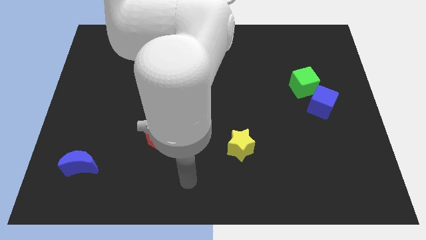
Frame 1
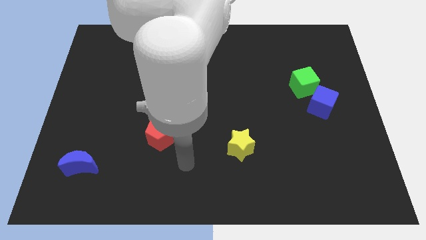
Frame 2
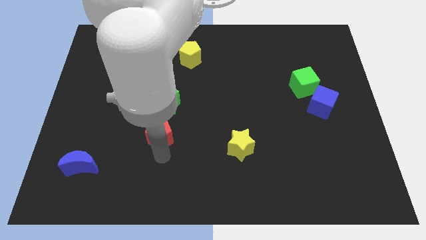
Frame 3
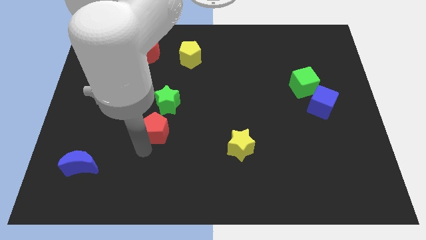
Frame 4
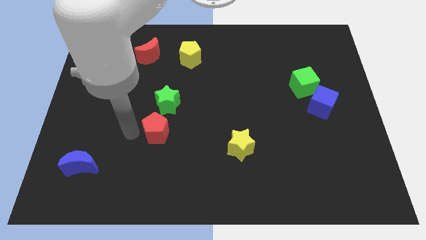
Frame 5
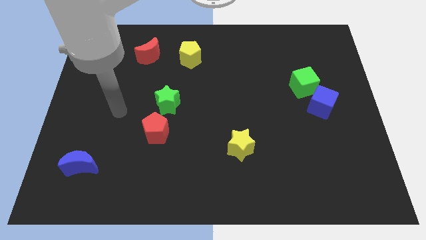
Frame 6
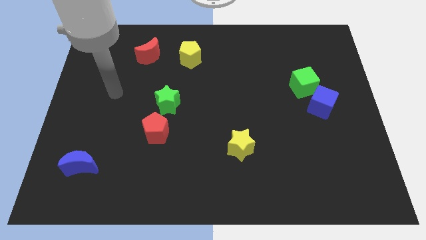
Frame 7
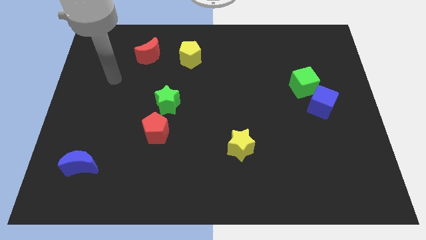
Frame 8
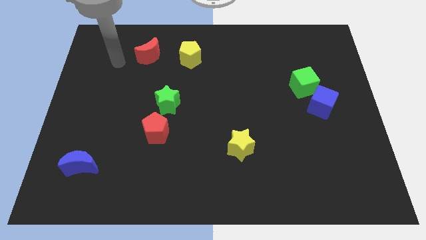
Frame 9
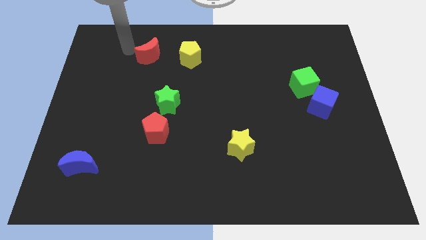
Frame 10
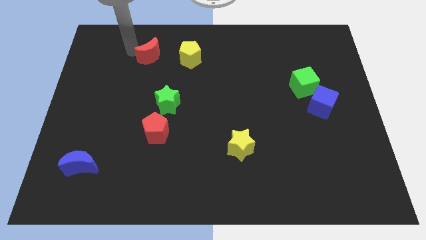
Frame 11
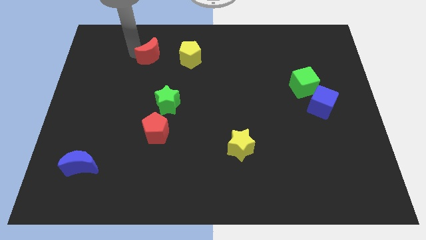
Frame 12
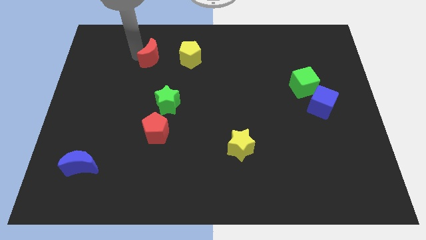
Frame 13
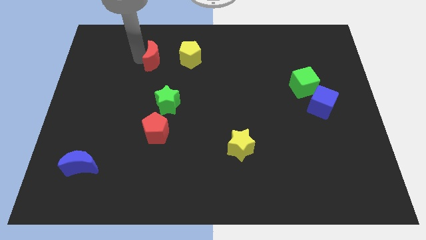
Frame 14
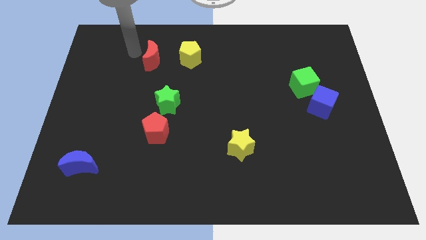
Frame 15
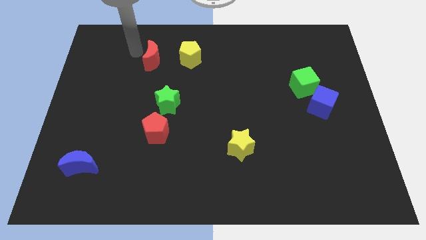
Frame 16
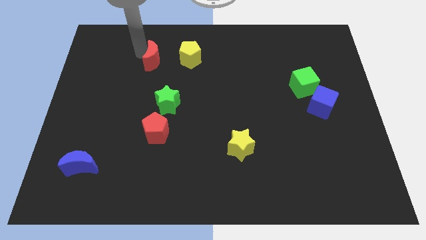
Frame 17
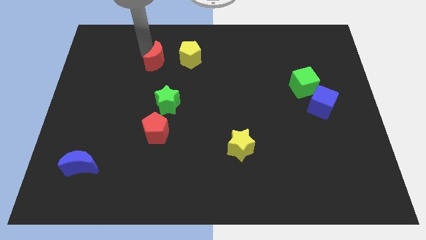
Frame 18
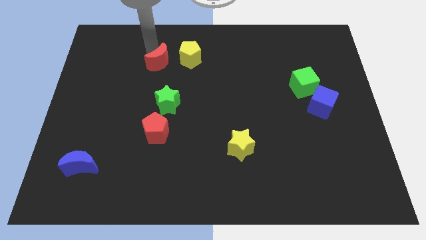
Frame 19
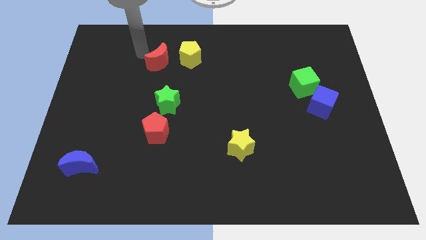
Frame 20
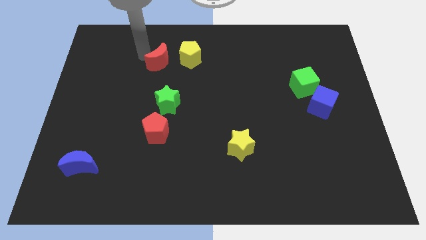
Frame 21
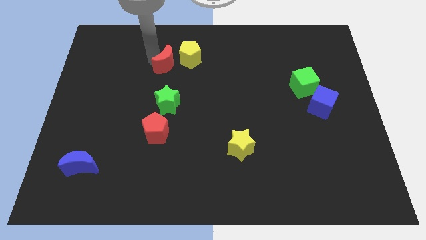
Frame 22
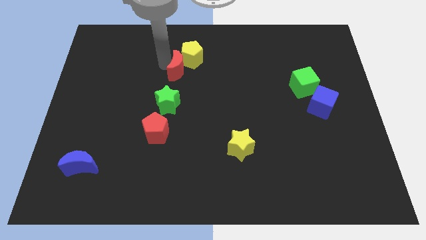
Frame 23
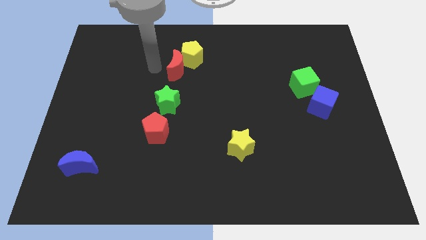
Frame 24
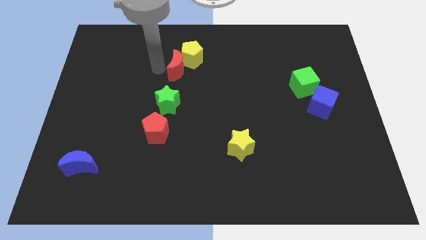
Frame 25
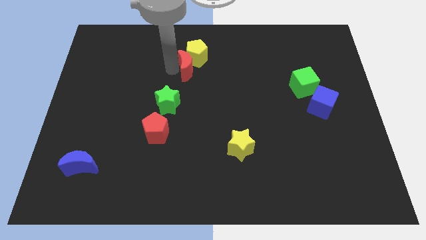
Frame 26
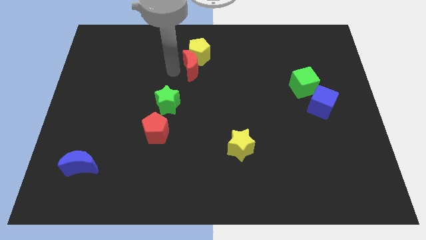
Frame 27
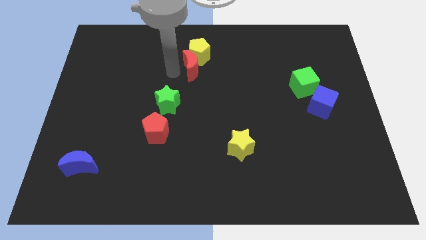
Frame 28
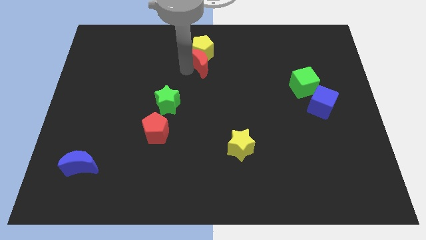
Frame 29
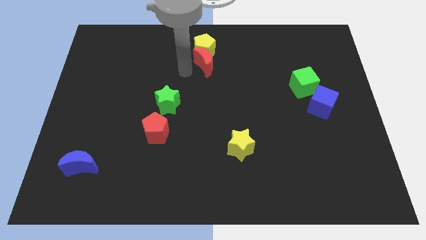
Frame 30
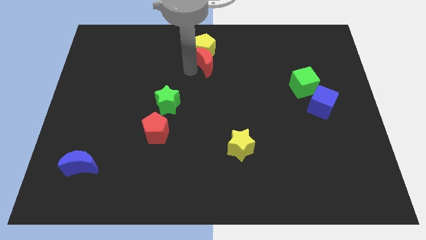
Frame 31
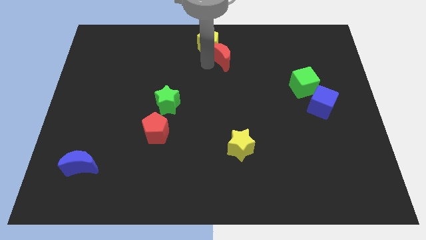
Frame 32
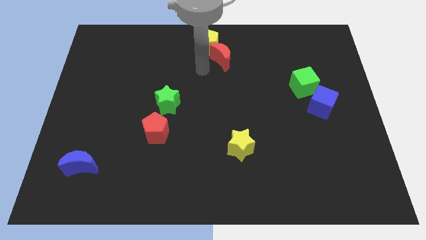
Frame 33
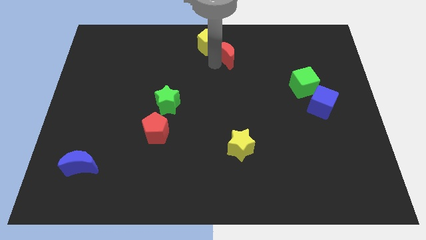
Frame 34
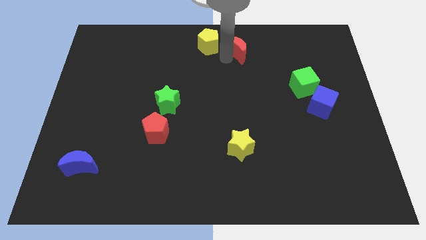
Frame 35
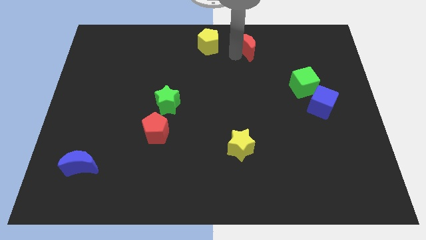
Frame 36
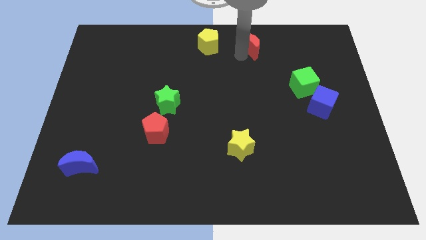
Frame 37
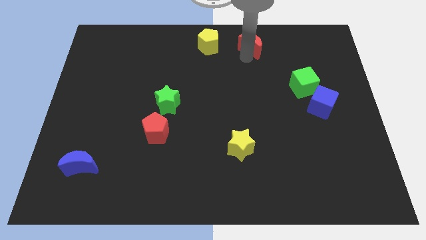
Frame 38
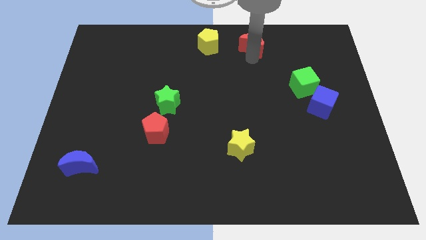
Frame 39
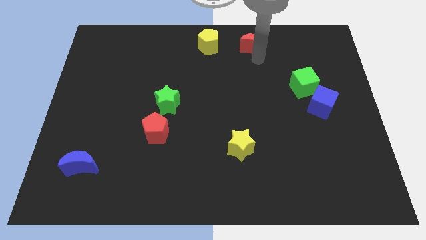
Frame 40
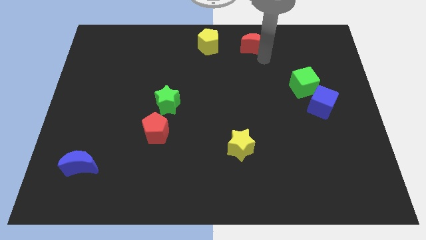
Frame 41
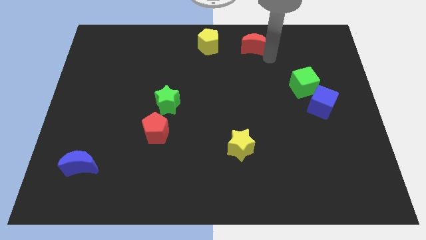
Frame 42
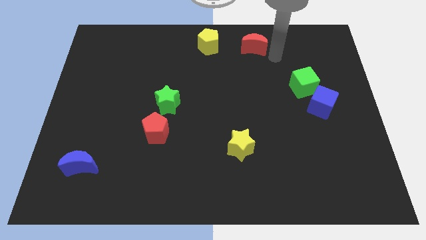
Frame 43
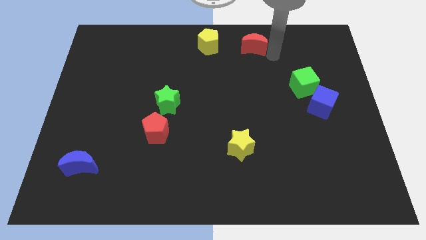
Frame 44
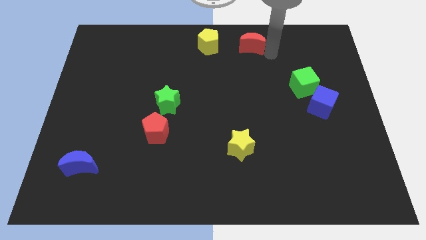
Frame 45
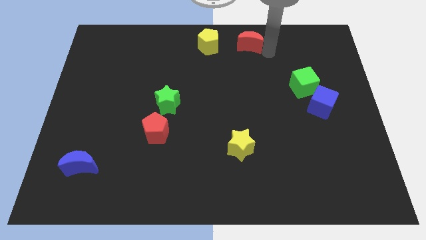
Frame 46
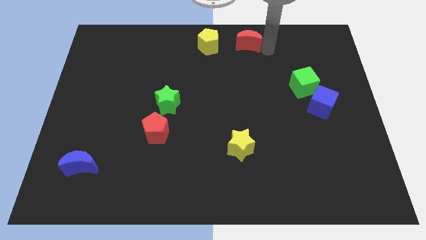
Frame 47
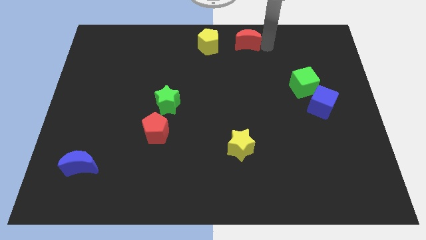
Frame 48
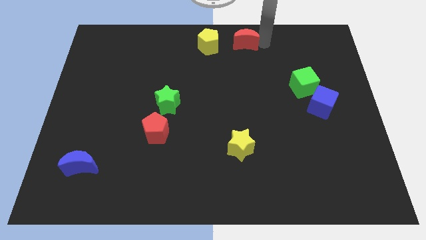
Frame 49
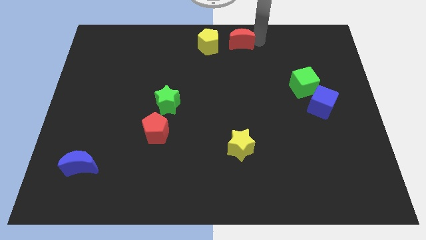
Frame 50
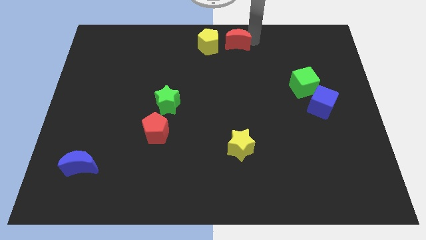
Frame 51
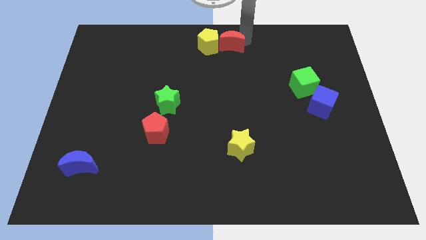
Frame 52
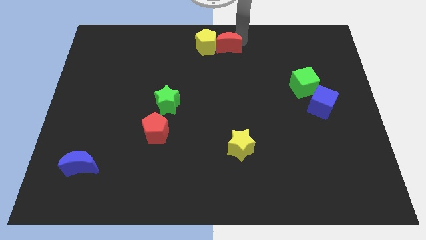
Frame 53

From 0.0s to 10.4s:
move the red moon just right of the yellow pentagon

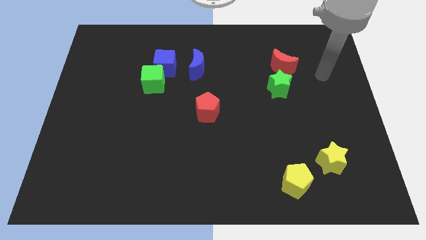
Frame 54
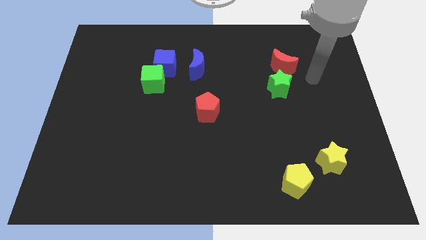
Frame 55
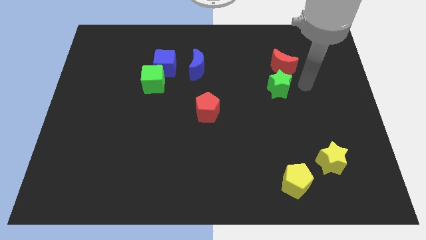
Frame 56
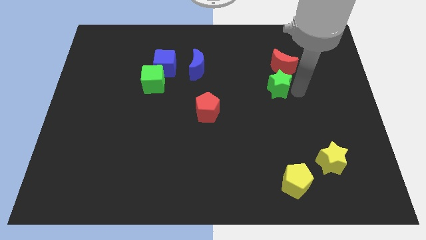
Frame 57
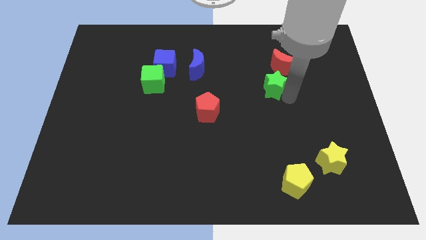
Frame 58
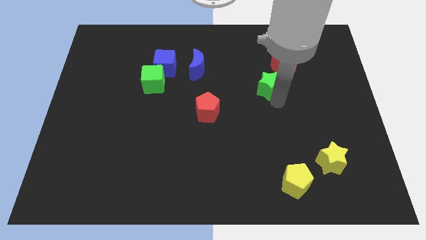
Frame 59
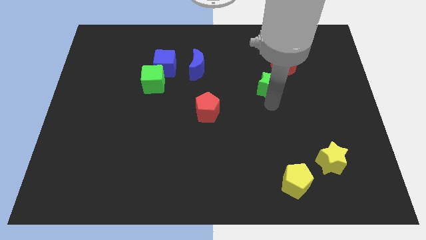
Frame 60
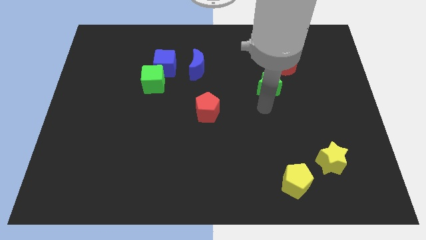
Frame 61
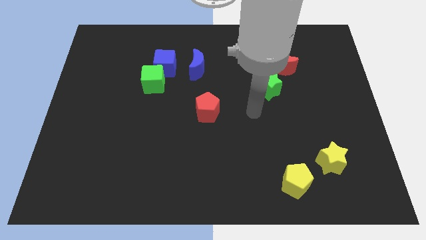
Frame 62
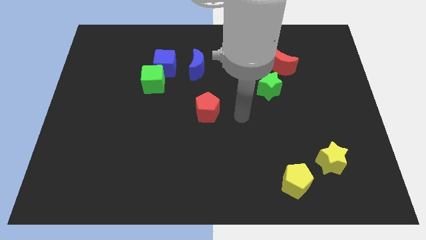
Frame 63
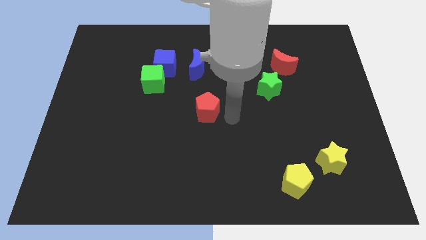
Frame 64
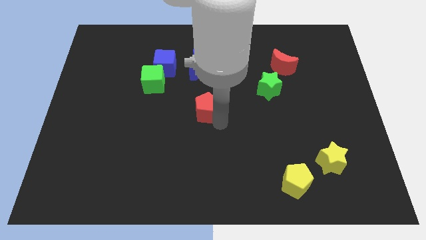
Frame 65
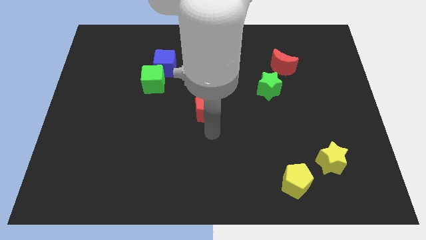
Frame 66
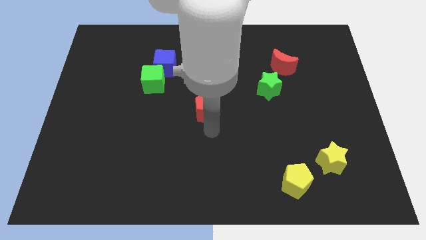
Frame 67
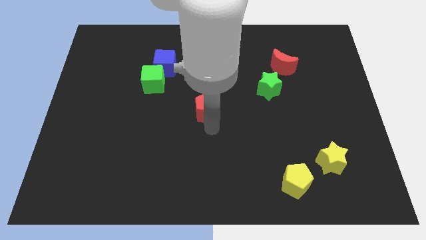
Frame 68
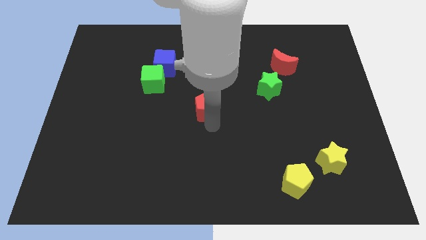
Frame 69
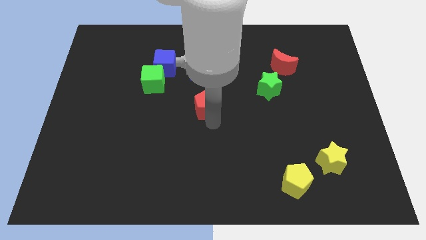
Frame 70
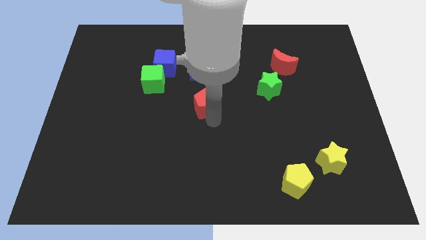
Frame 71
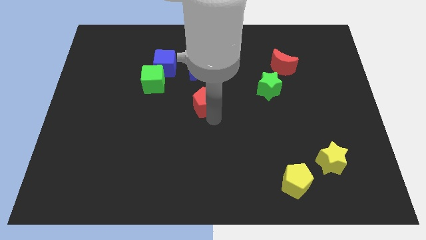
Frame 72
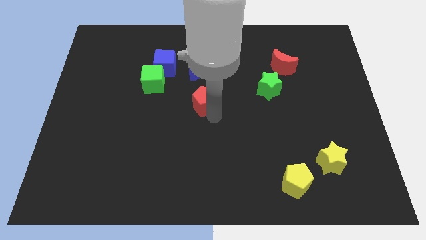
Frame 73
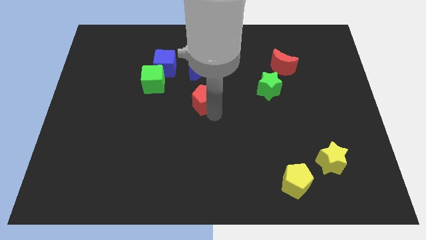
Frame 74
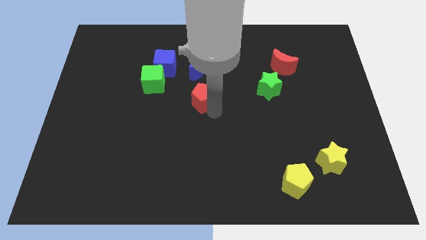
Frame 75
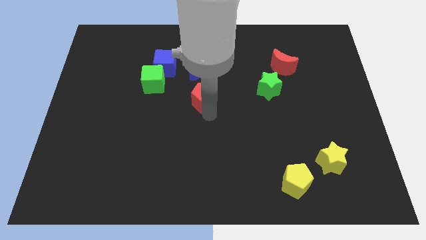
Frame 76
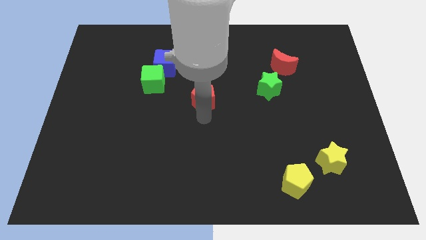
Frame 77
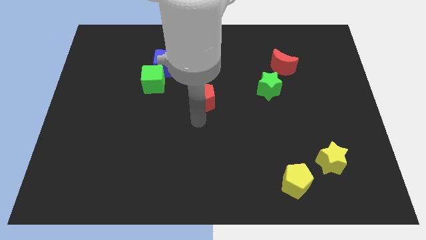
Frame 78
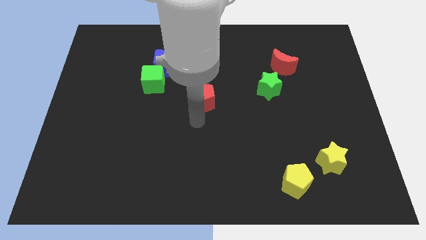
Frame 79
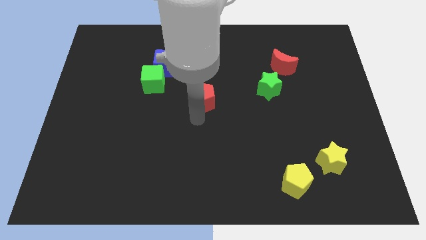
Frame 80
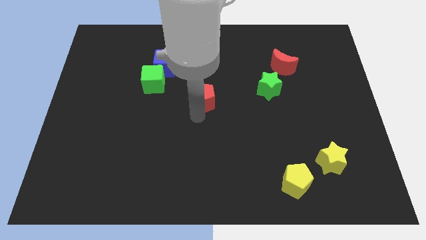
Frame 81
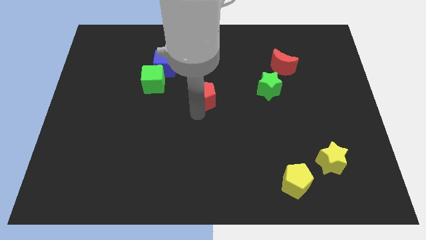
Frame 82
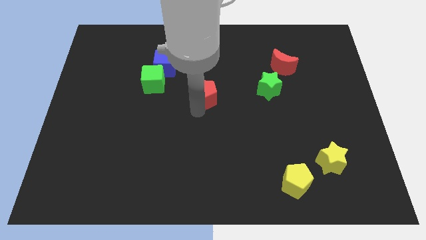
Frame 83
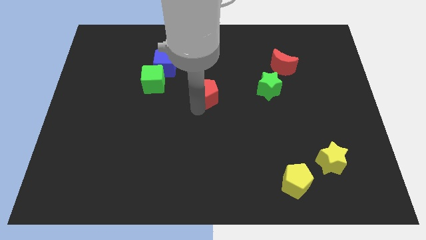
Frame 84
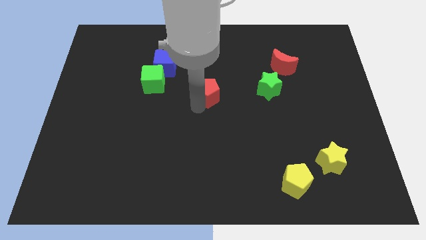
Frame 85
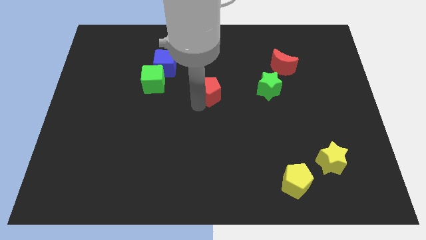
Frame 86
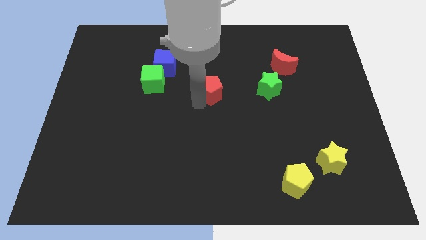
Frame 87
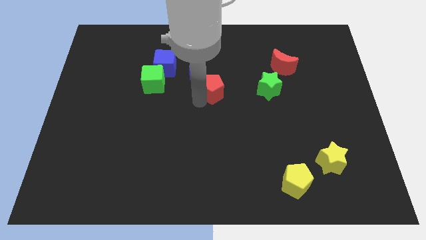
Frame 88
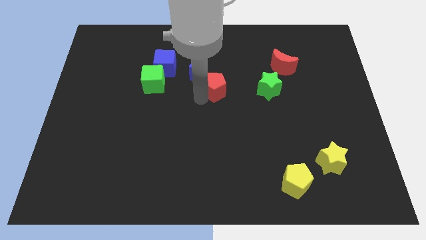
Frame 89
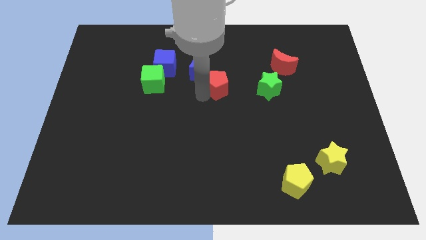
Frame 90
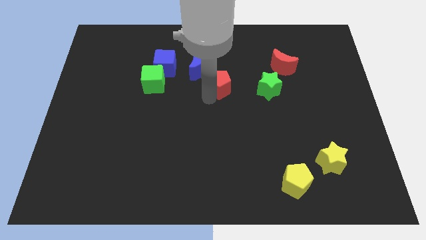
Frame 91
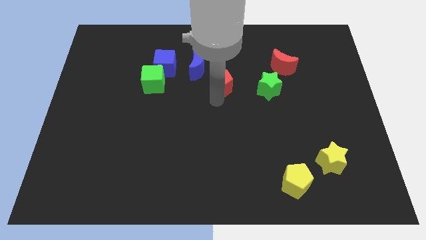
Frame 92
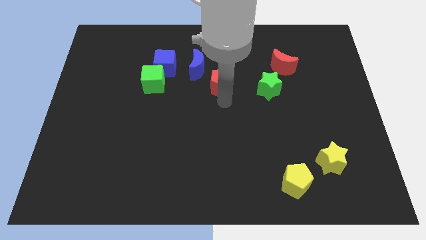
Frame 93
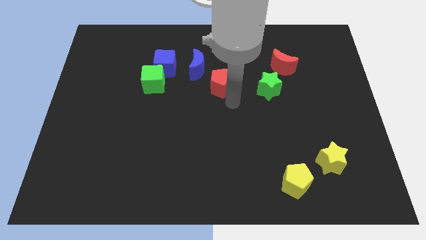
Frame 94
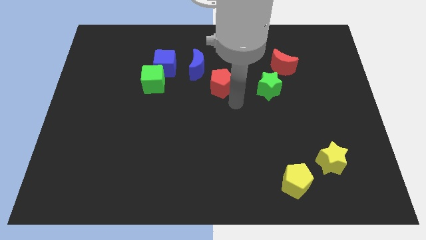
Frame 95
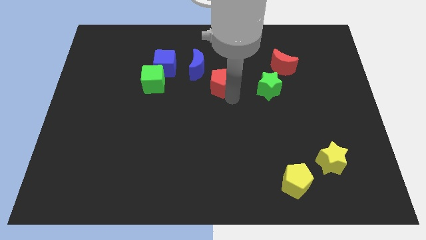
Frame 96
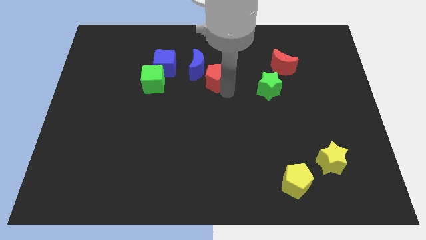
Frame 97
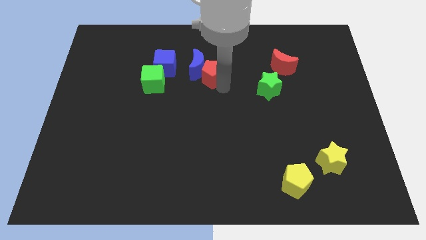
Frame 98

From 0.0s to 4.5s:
put the red pentagon to the right side of the blue cube
